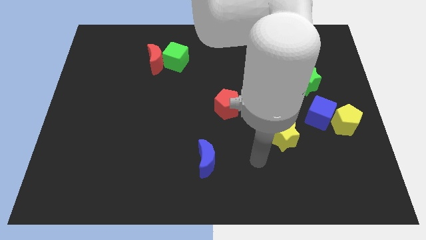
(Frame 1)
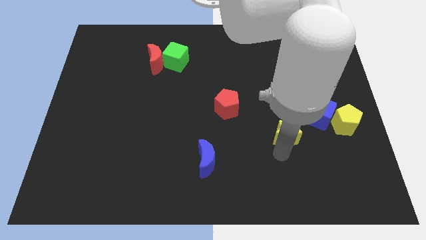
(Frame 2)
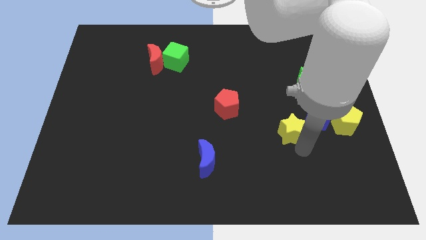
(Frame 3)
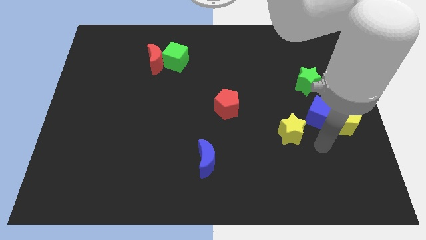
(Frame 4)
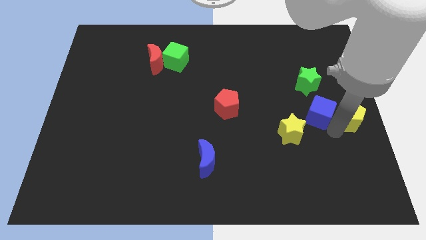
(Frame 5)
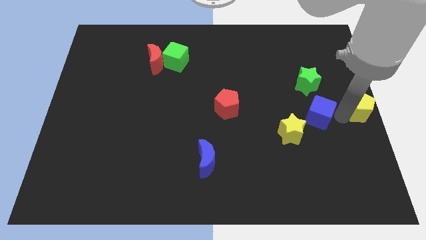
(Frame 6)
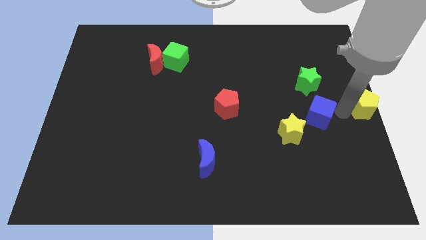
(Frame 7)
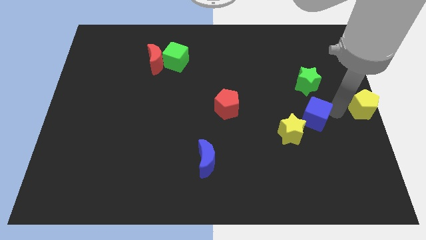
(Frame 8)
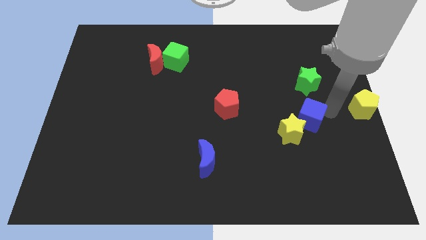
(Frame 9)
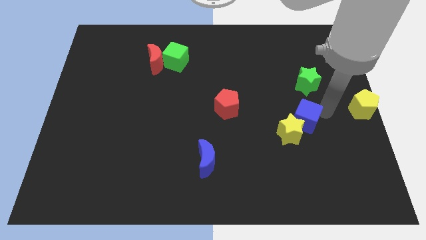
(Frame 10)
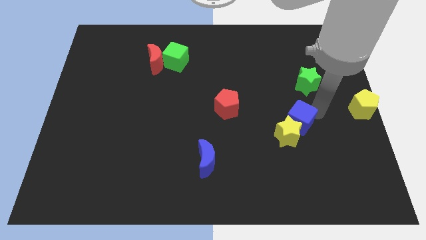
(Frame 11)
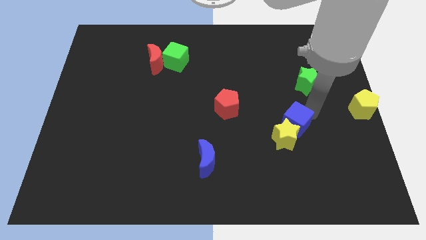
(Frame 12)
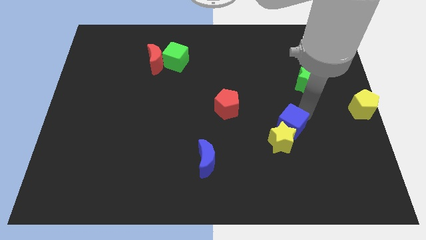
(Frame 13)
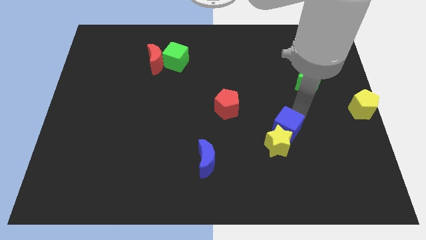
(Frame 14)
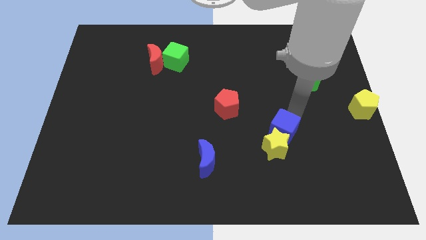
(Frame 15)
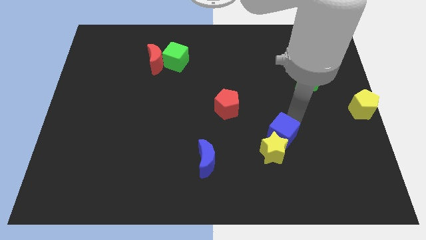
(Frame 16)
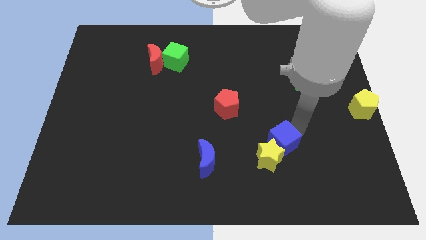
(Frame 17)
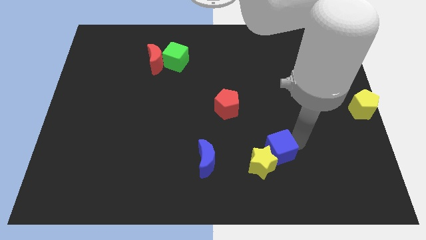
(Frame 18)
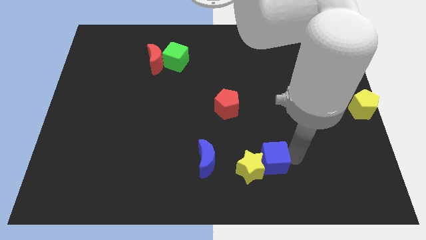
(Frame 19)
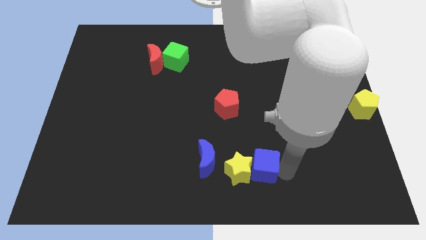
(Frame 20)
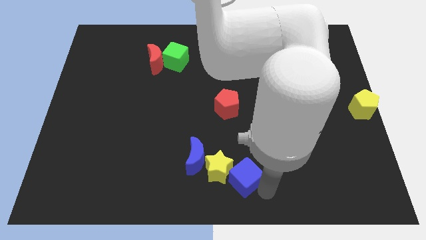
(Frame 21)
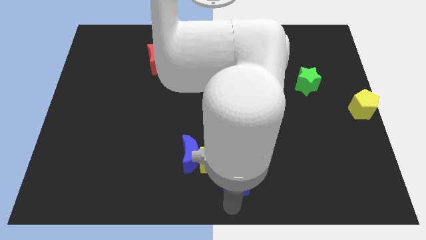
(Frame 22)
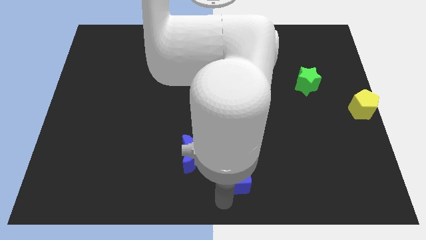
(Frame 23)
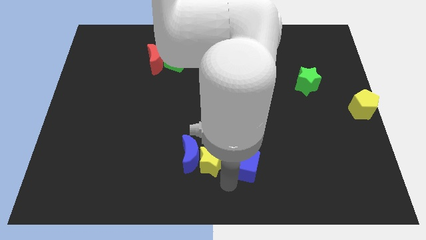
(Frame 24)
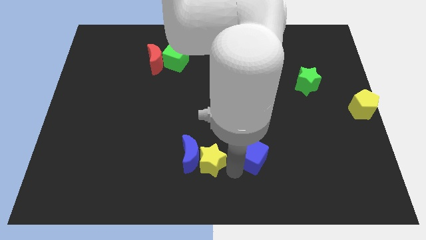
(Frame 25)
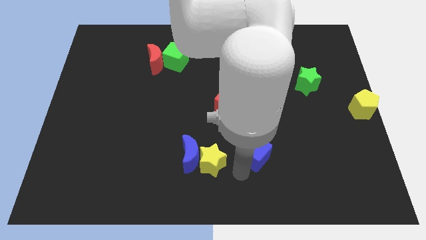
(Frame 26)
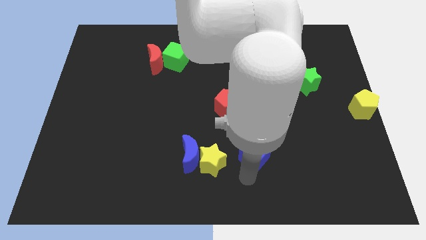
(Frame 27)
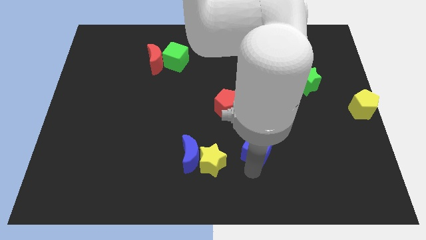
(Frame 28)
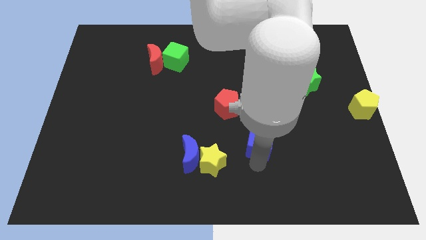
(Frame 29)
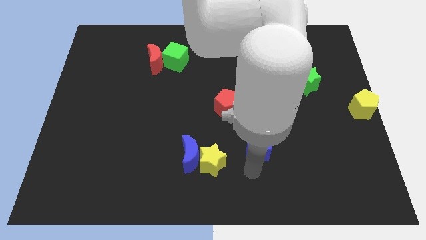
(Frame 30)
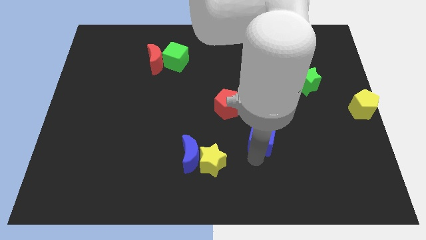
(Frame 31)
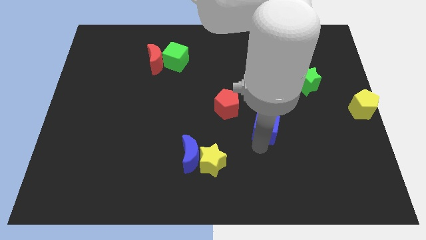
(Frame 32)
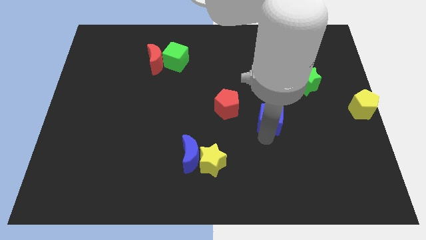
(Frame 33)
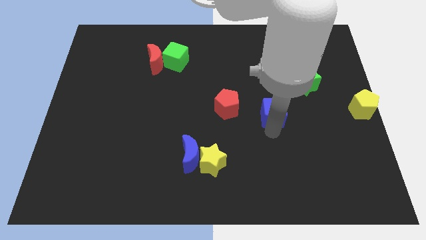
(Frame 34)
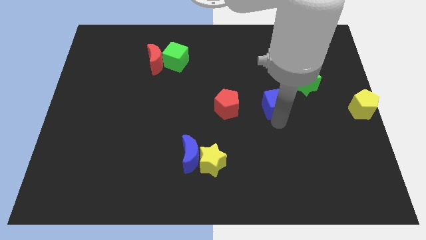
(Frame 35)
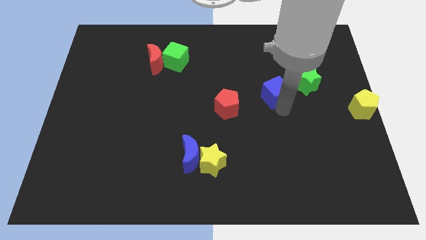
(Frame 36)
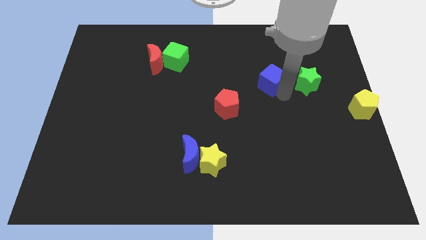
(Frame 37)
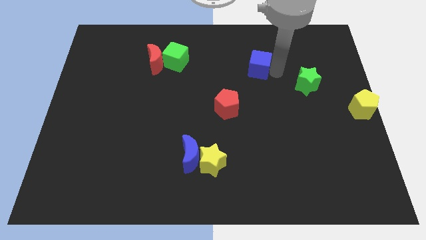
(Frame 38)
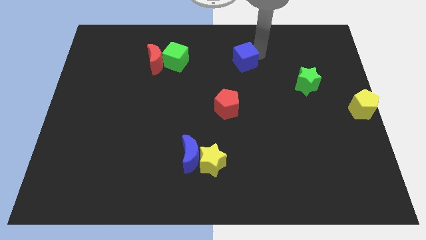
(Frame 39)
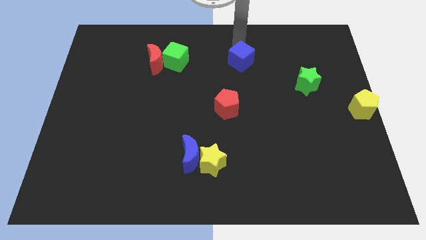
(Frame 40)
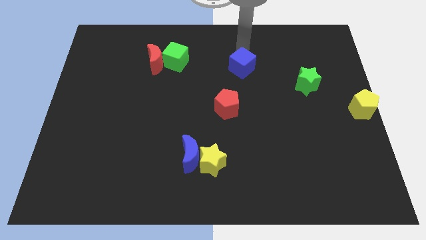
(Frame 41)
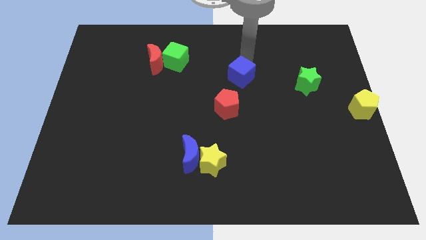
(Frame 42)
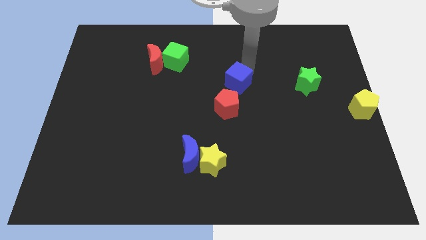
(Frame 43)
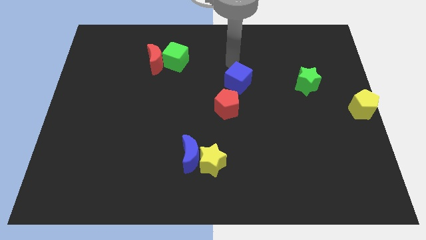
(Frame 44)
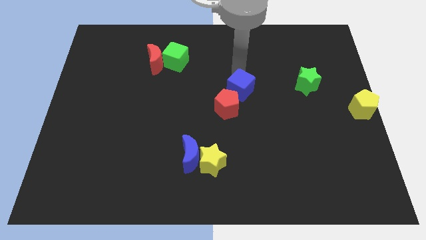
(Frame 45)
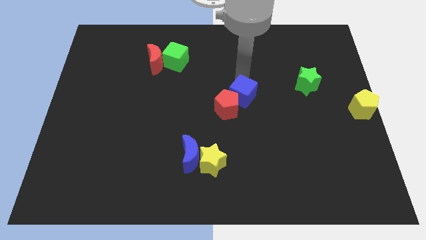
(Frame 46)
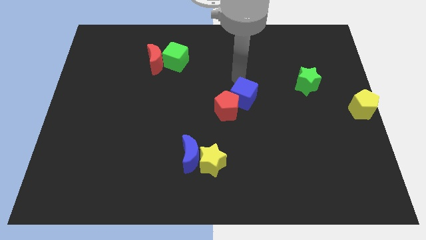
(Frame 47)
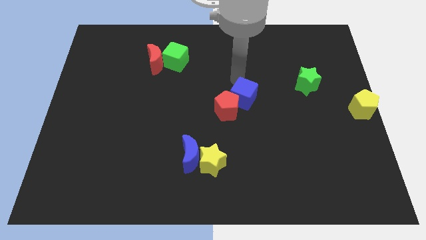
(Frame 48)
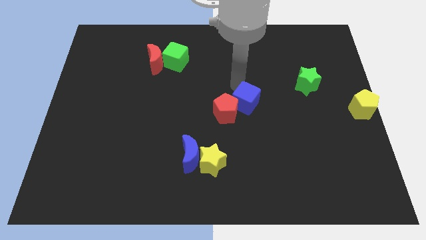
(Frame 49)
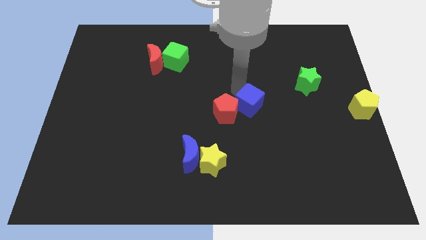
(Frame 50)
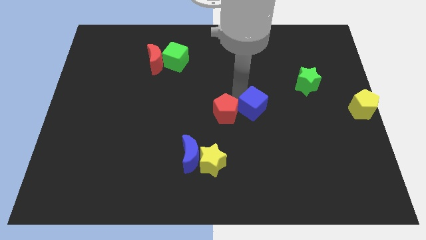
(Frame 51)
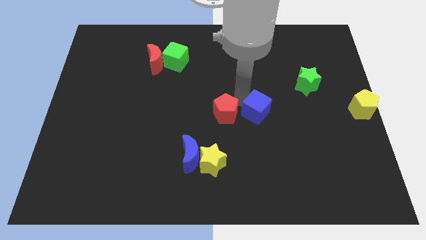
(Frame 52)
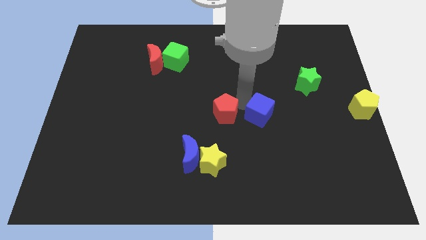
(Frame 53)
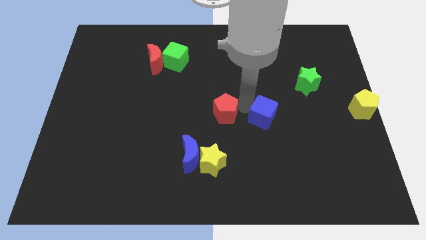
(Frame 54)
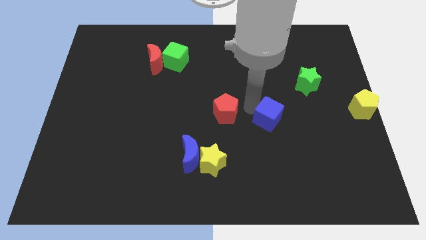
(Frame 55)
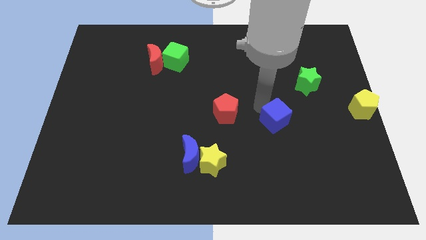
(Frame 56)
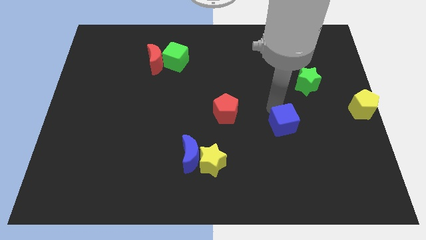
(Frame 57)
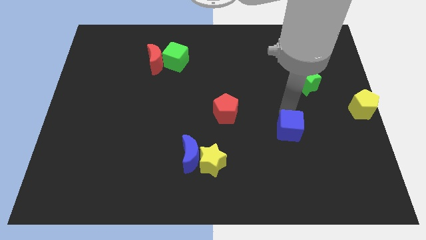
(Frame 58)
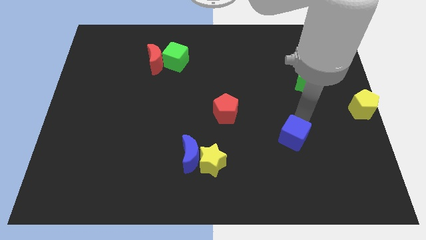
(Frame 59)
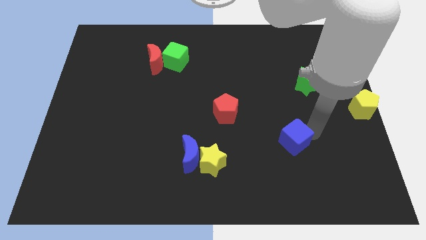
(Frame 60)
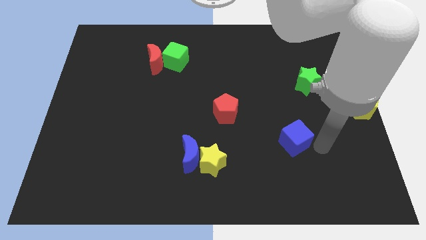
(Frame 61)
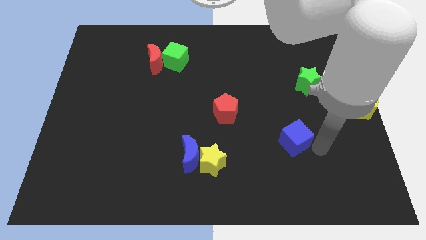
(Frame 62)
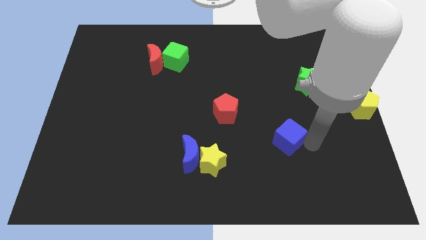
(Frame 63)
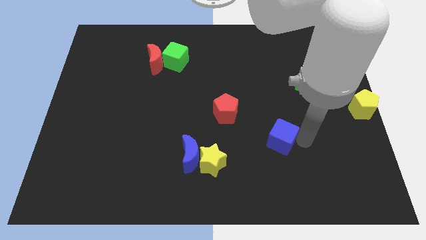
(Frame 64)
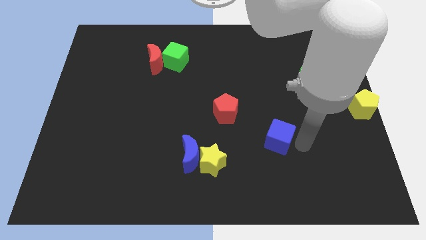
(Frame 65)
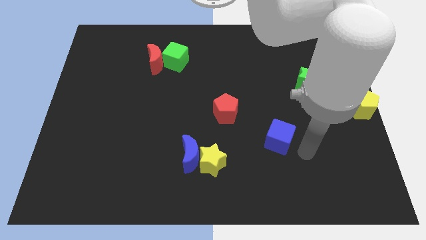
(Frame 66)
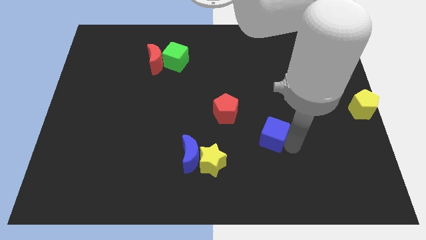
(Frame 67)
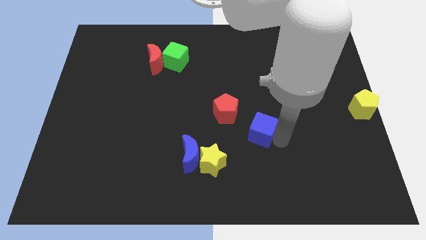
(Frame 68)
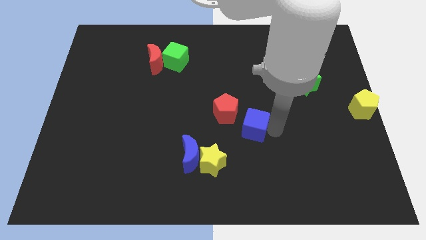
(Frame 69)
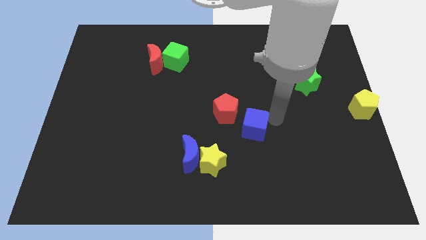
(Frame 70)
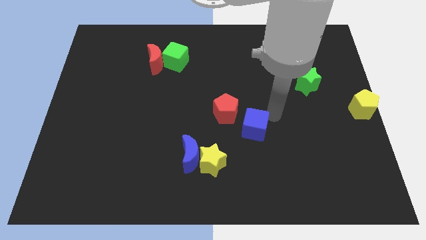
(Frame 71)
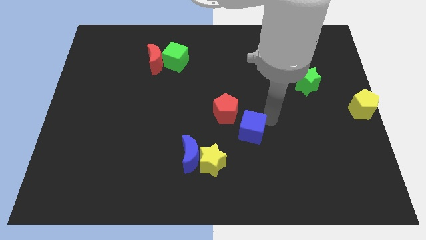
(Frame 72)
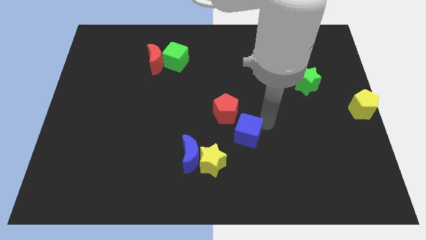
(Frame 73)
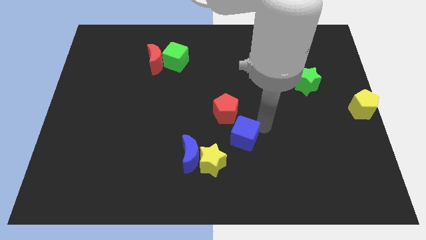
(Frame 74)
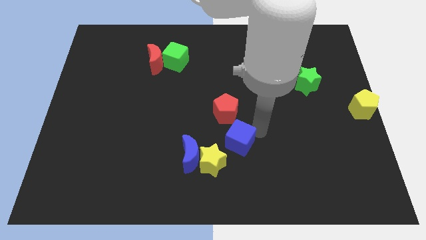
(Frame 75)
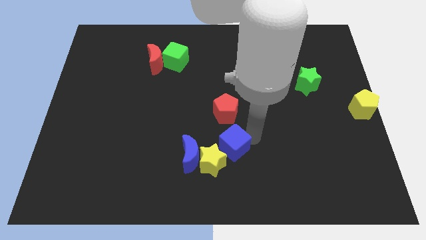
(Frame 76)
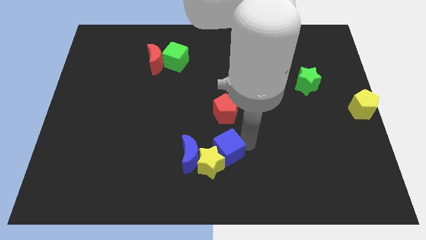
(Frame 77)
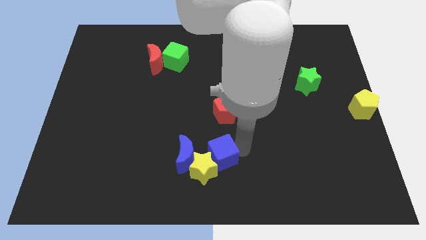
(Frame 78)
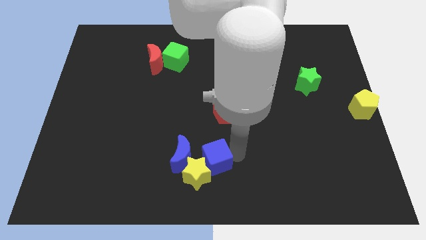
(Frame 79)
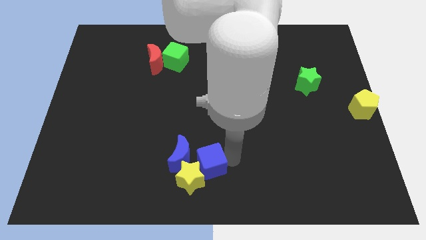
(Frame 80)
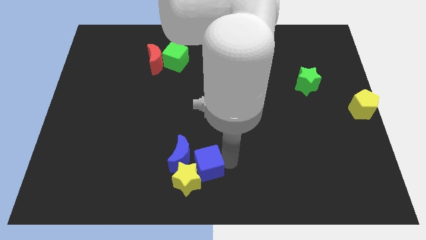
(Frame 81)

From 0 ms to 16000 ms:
push the blue cube close to the blue moon

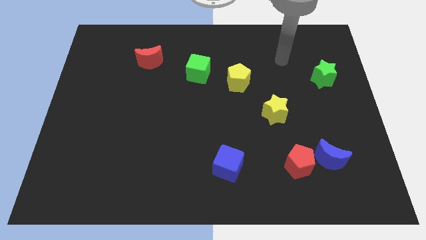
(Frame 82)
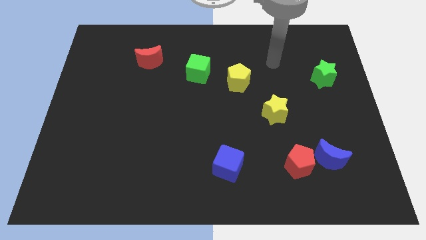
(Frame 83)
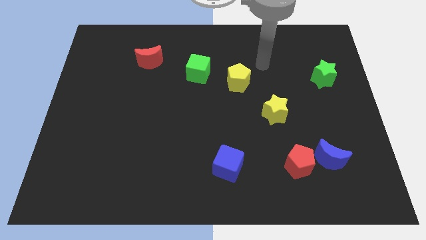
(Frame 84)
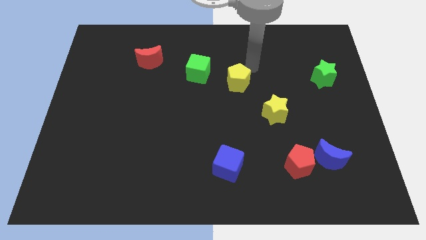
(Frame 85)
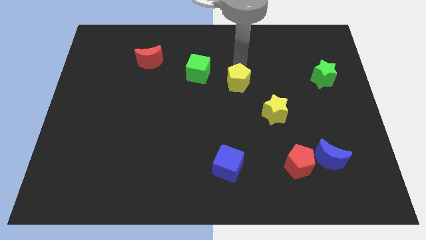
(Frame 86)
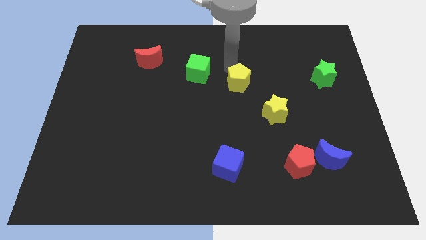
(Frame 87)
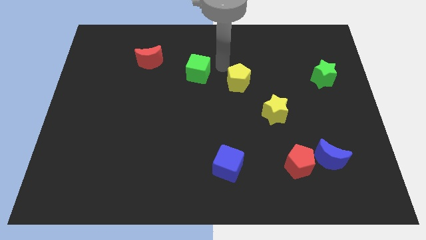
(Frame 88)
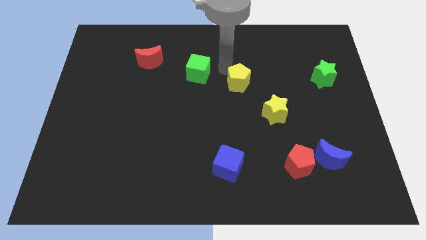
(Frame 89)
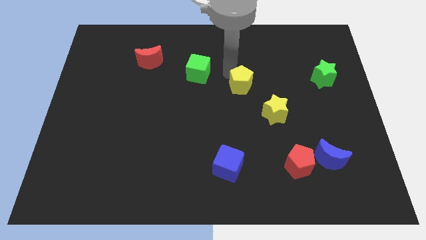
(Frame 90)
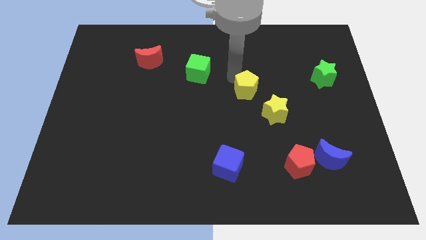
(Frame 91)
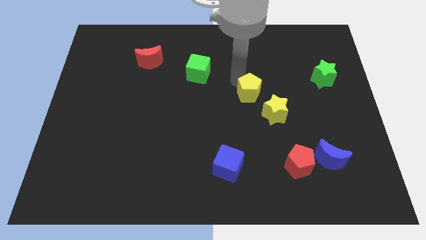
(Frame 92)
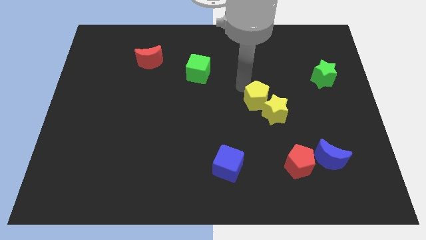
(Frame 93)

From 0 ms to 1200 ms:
push the yellow pentagon next to the yellow star
